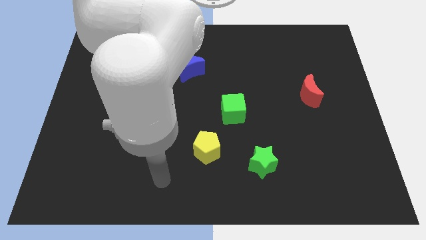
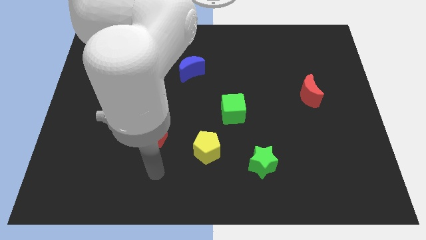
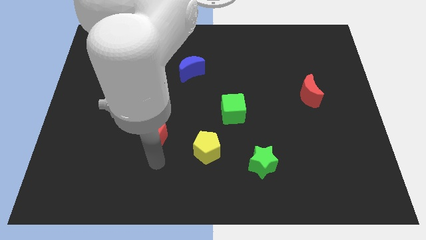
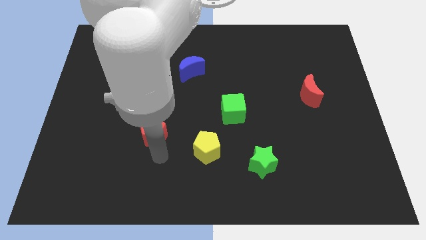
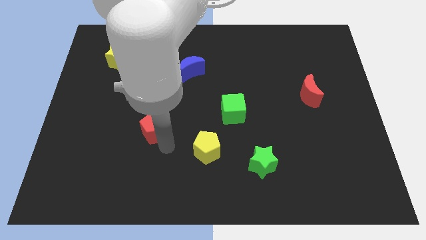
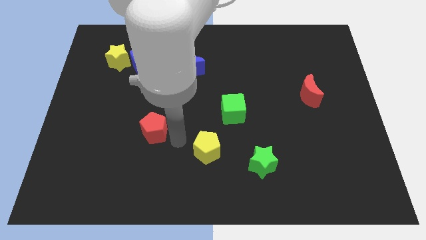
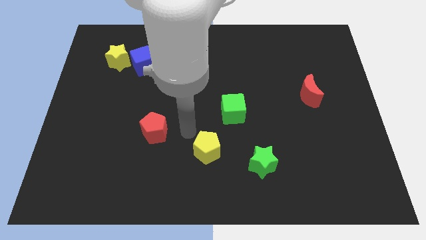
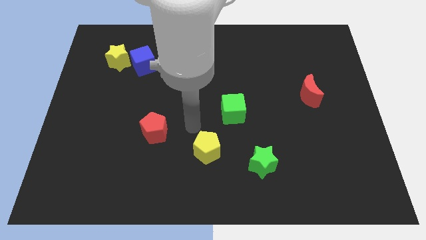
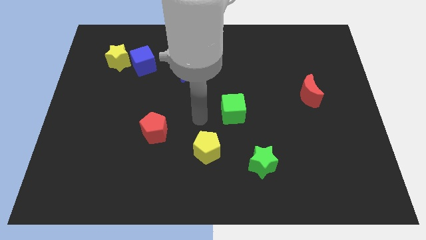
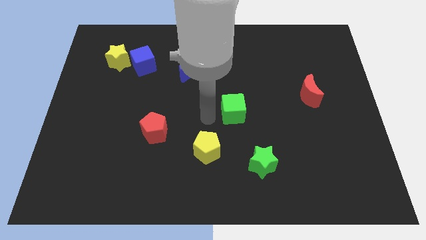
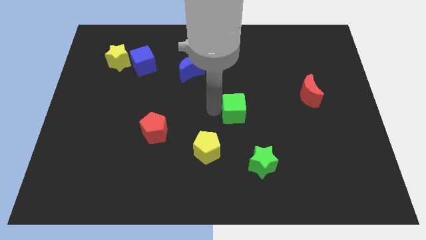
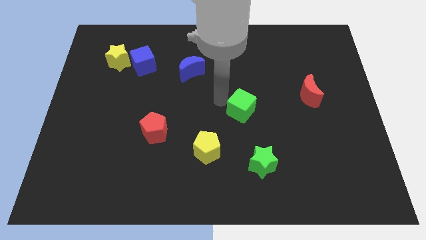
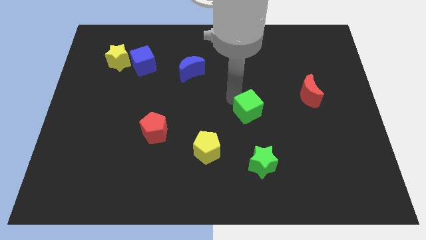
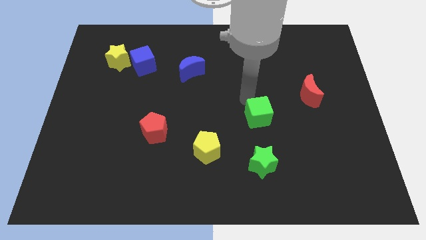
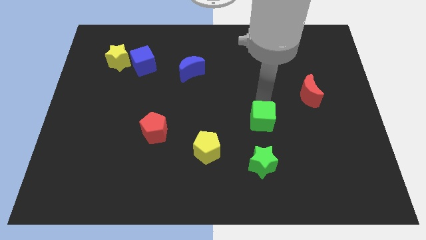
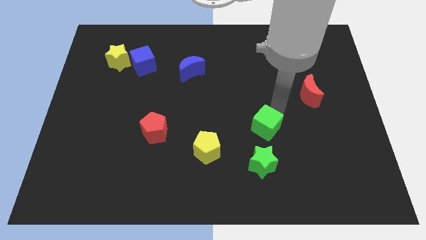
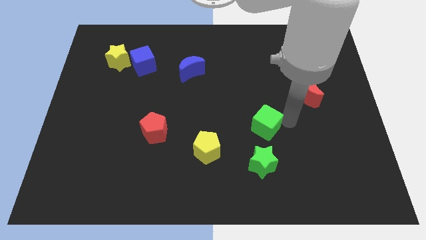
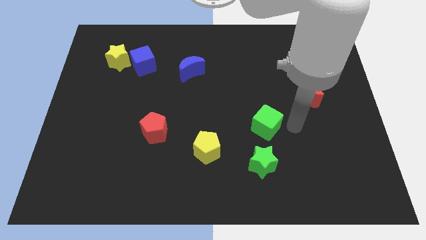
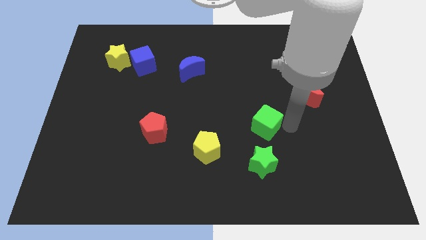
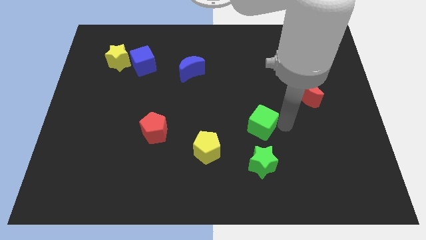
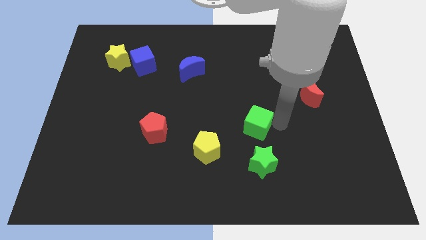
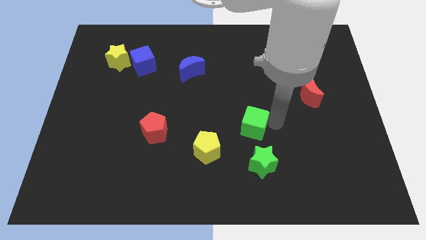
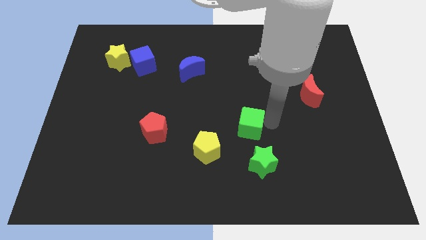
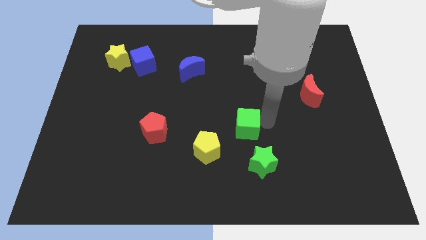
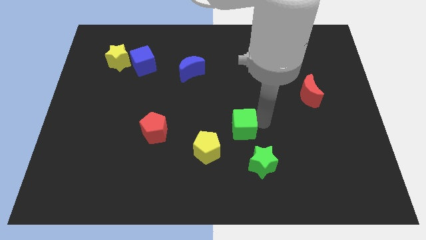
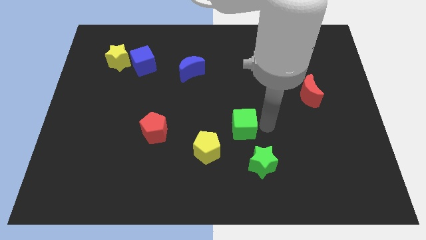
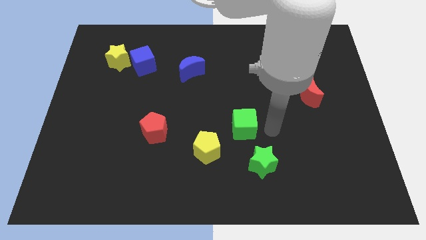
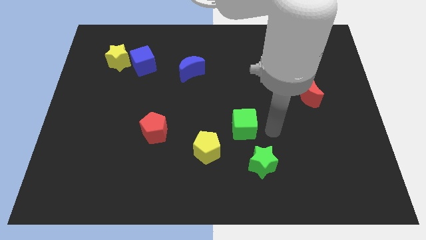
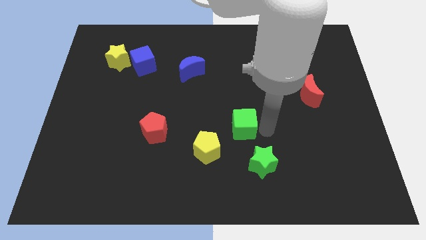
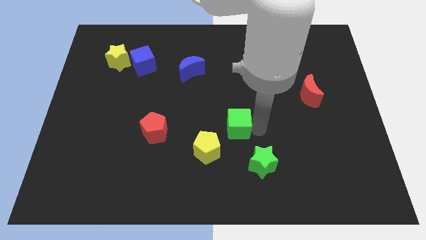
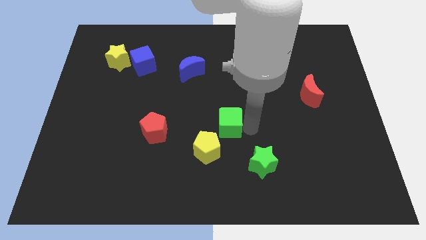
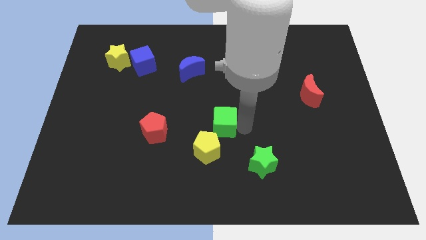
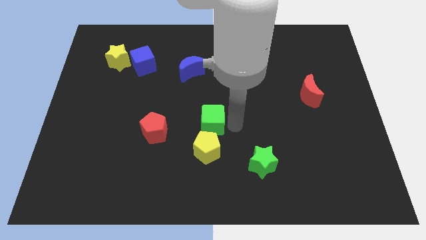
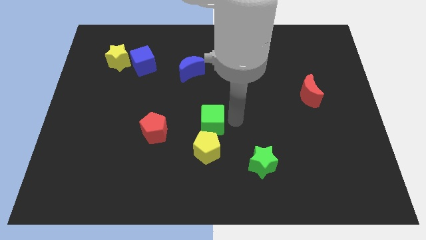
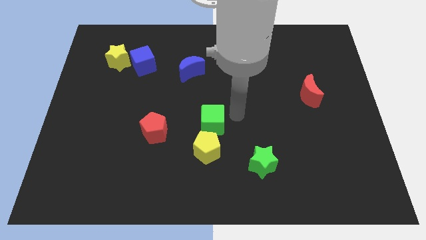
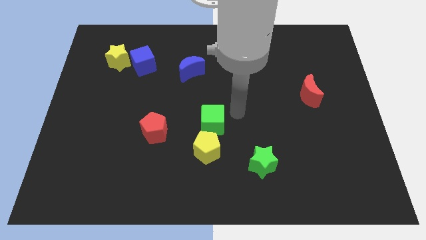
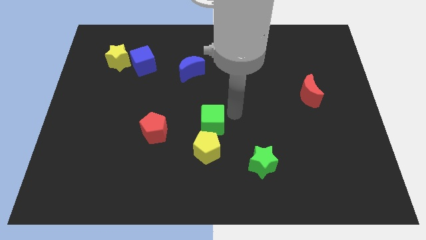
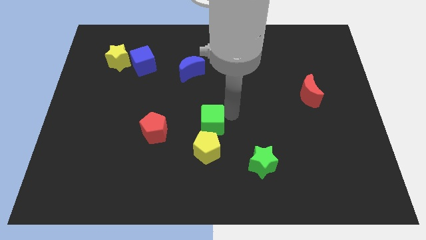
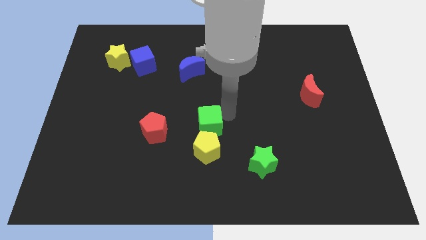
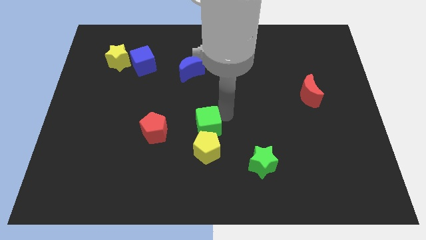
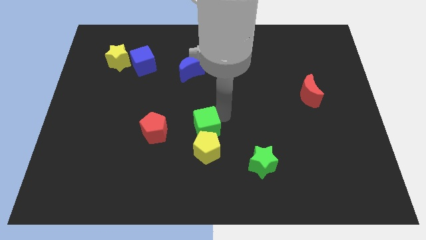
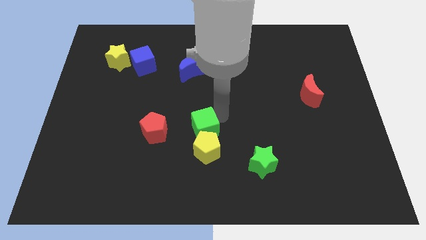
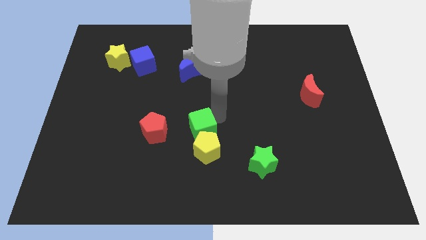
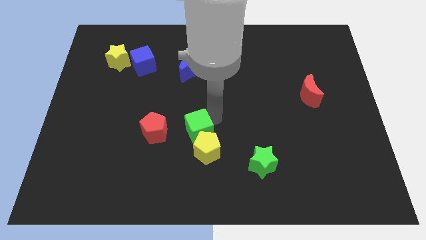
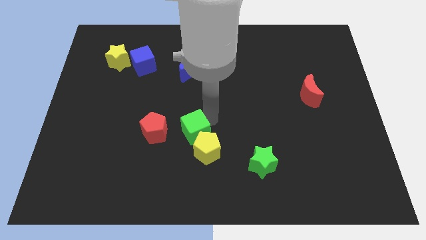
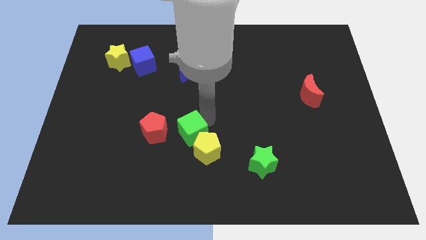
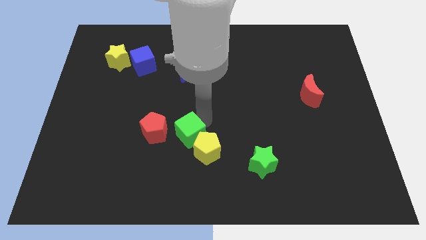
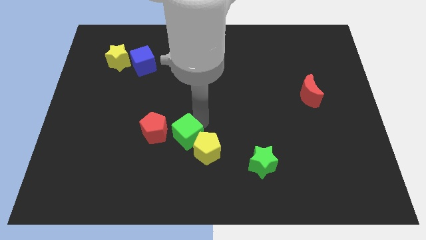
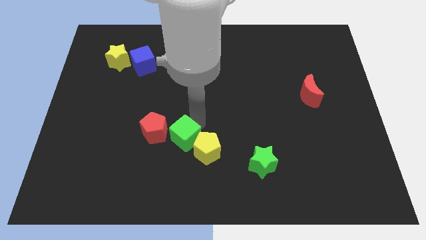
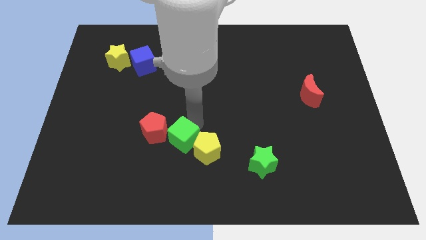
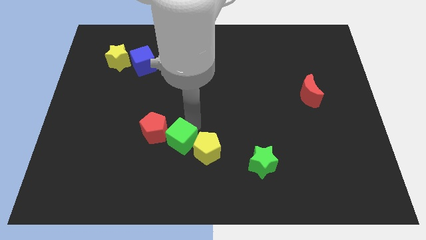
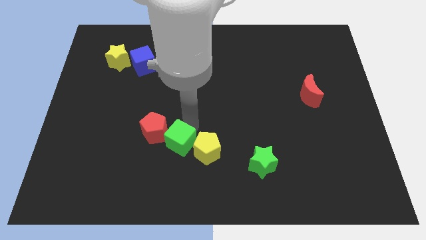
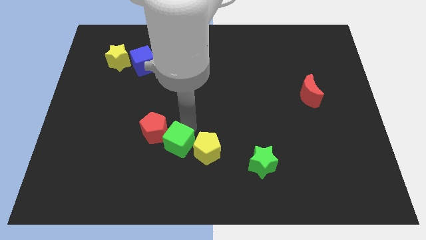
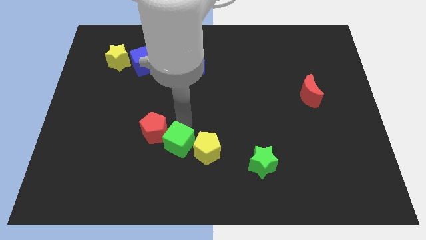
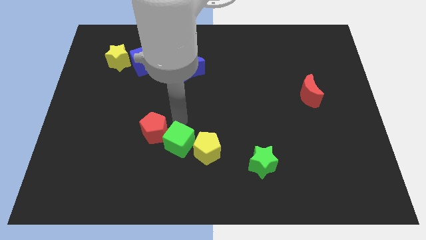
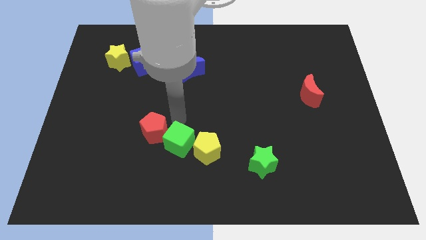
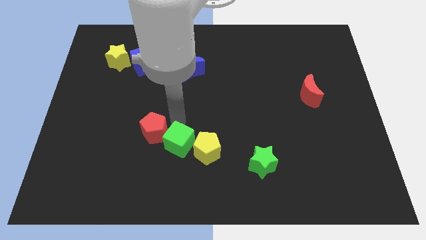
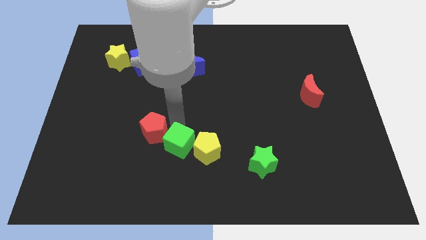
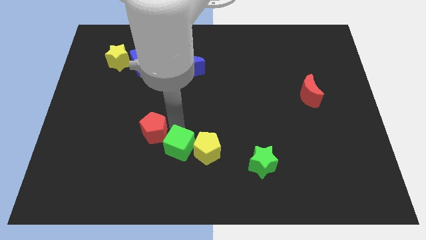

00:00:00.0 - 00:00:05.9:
push the green cube diagonally down and to the left of the yellow pentagon
